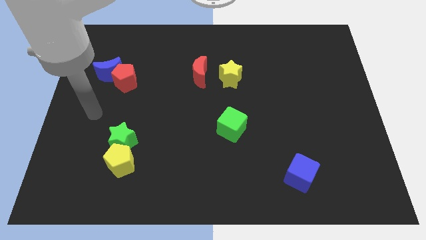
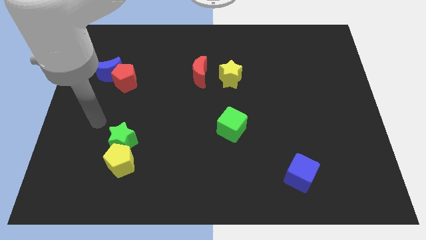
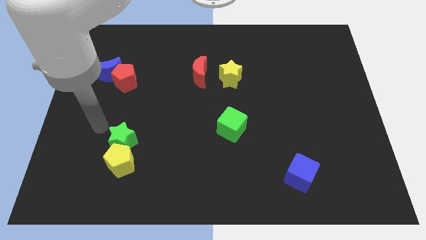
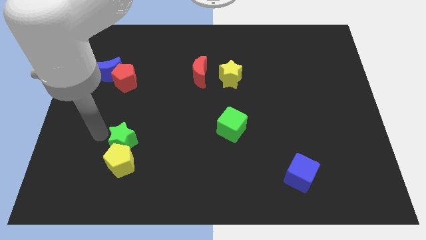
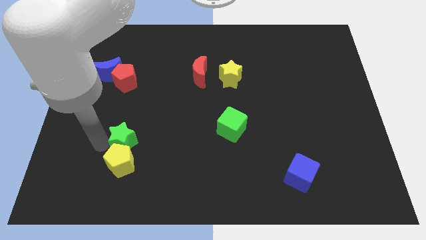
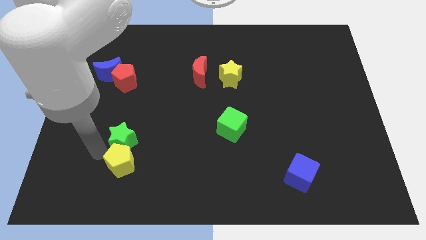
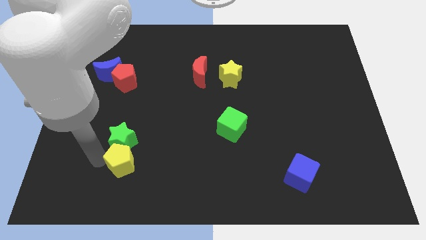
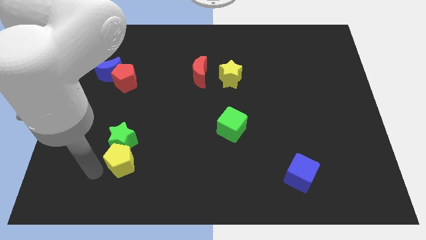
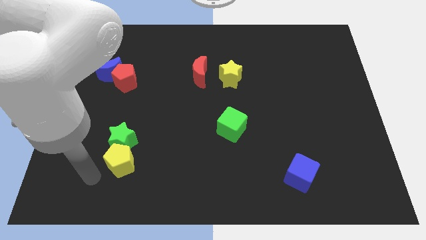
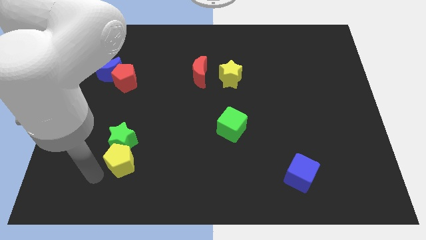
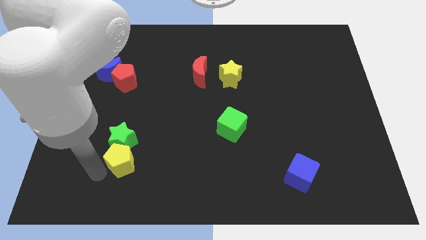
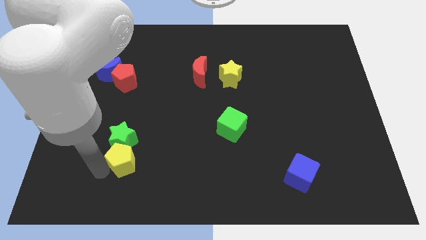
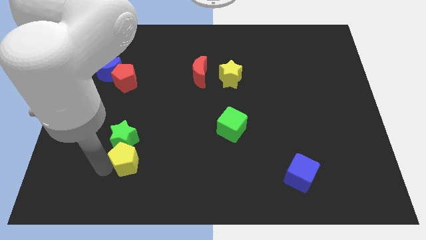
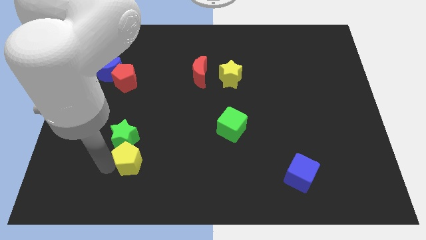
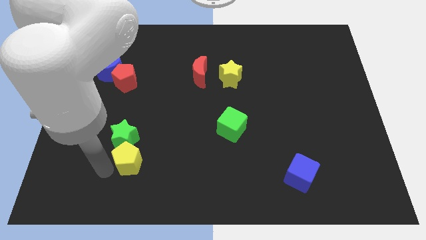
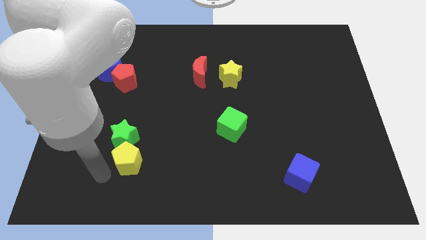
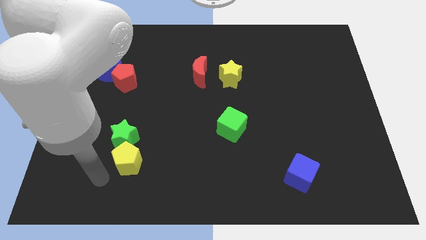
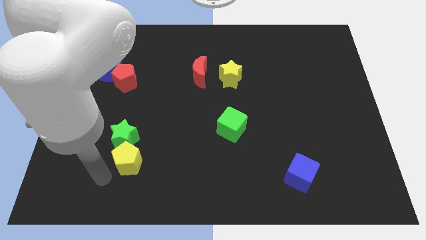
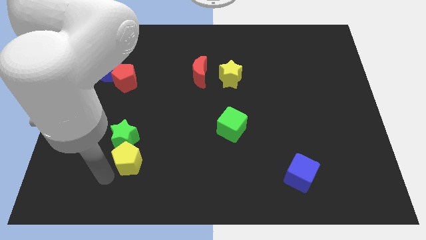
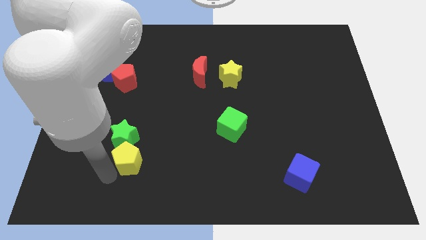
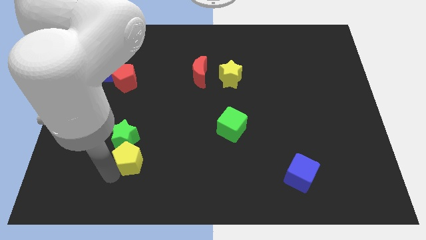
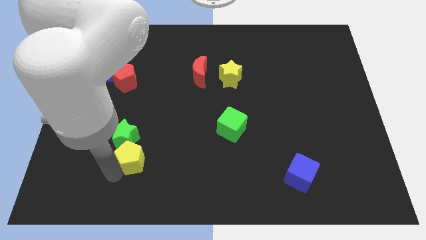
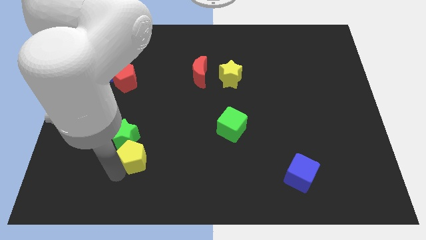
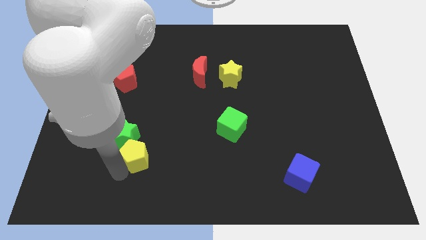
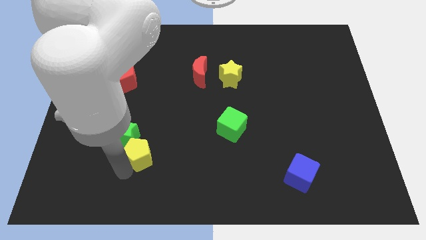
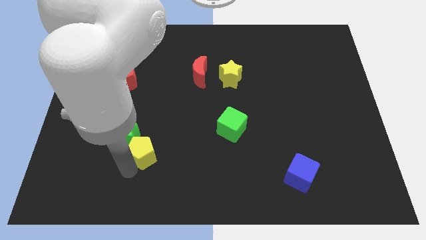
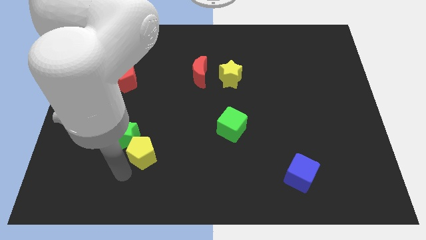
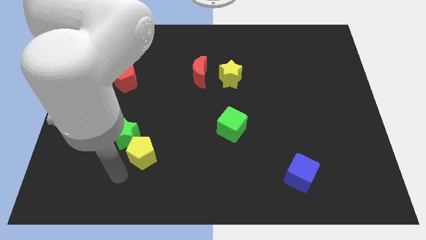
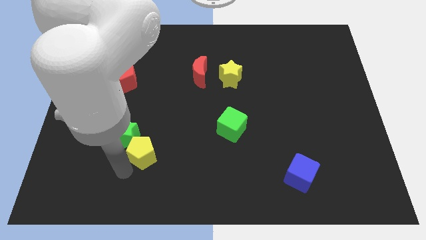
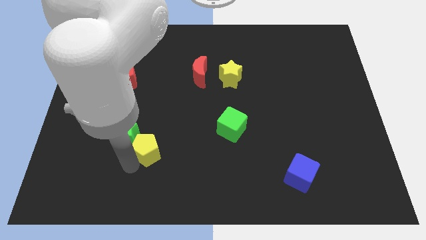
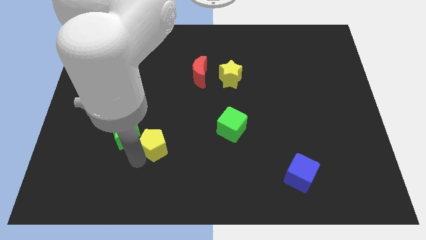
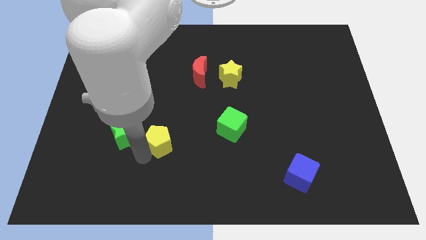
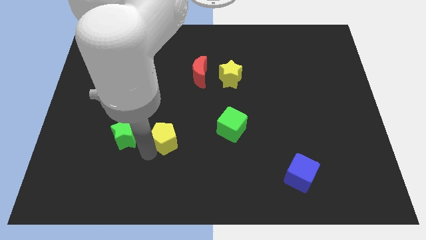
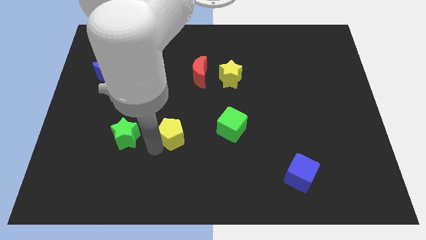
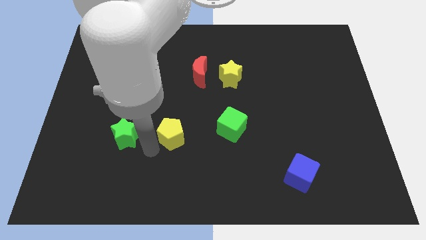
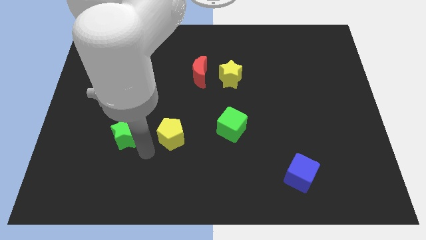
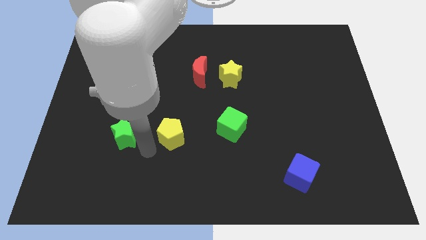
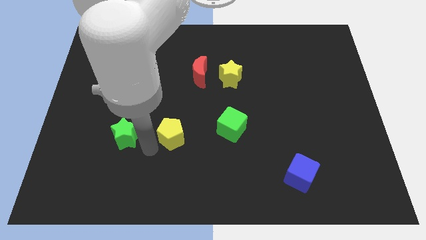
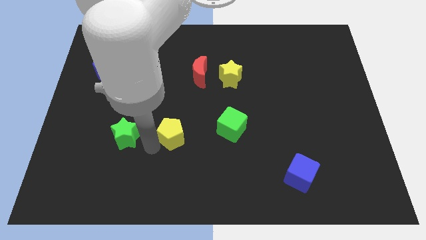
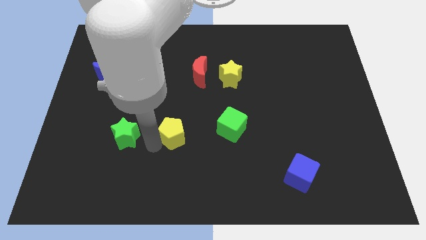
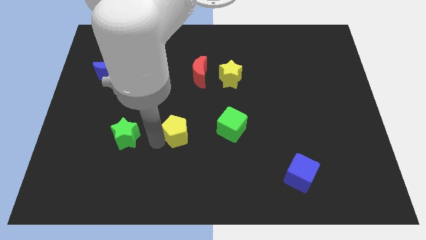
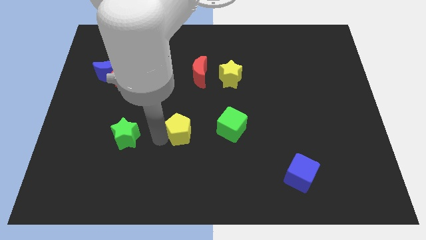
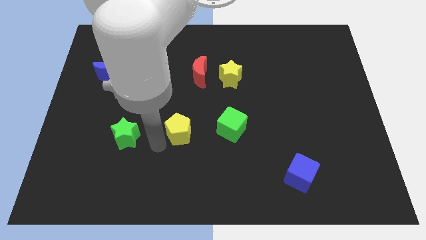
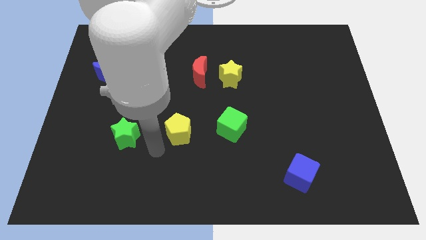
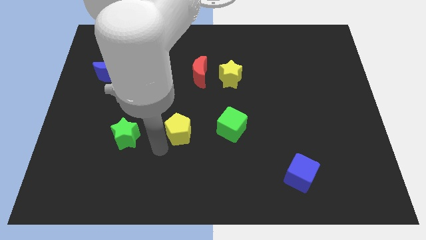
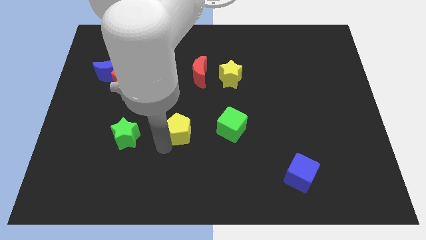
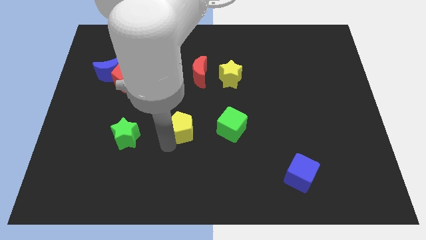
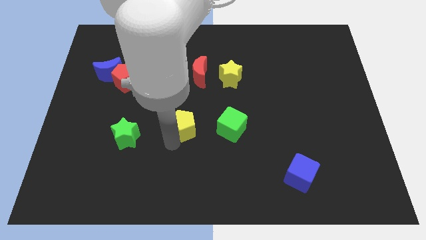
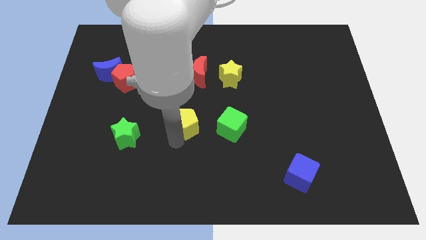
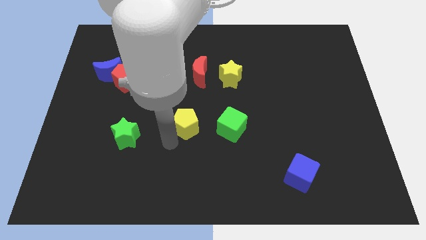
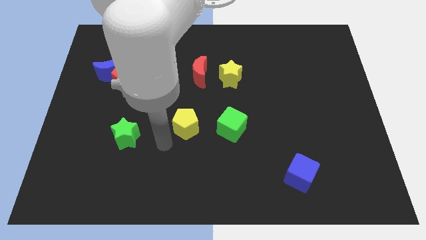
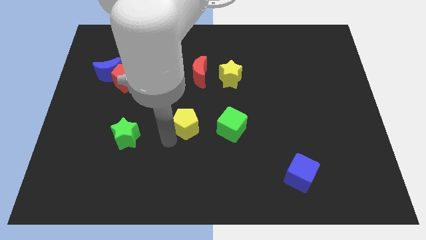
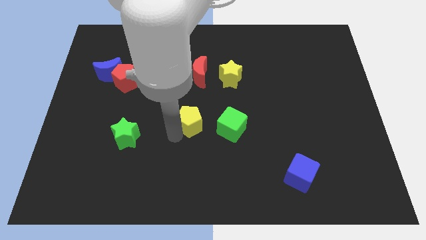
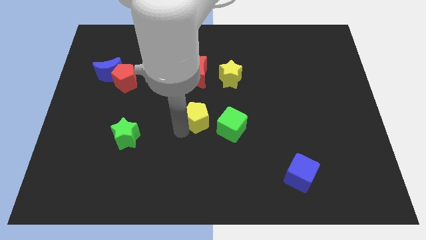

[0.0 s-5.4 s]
put the yellow pentagon diagonally up and to the left of the green cube

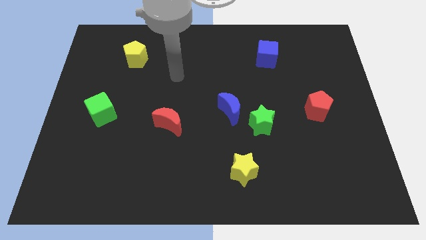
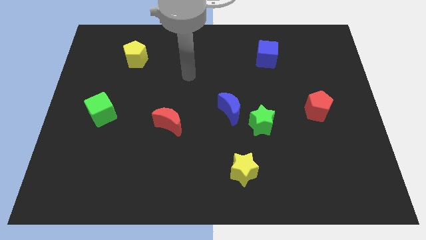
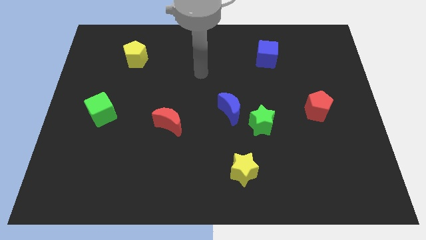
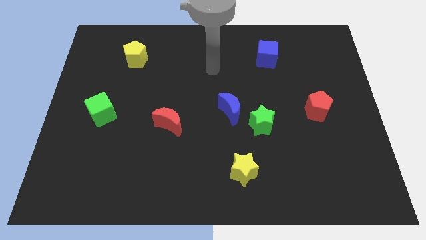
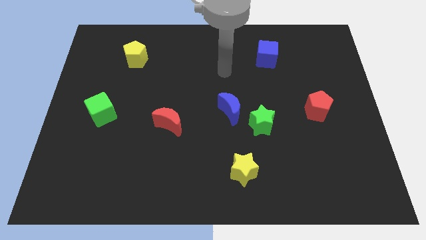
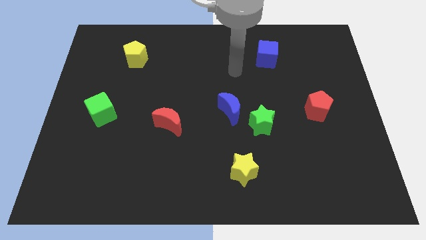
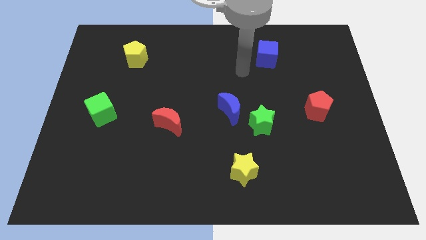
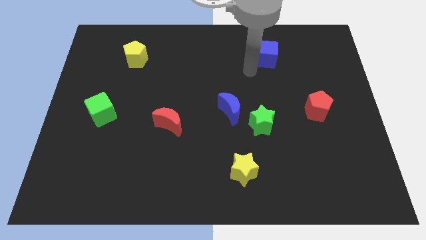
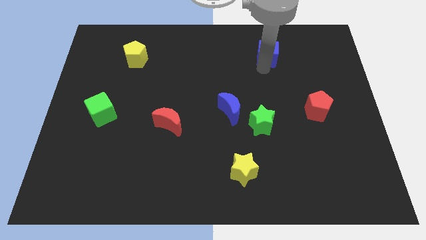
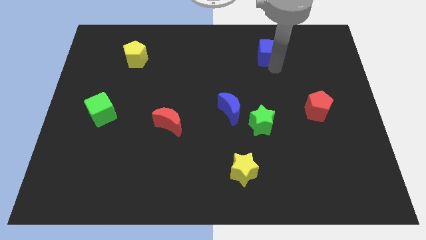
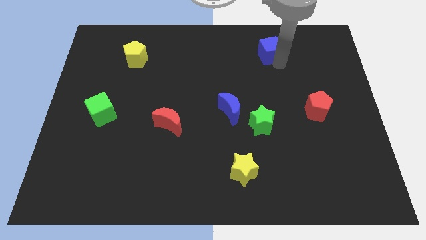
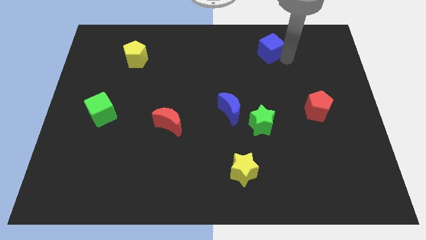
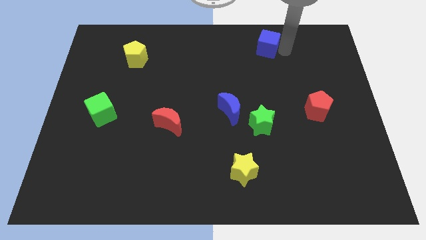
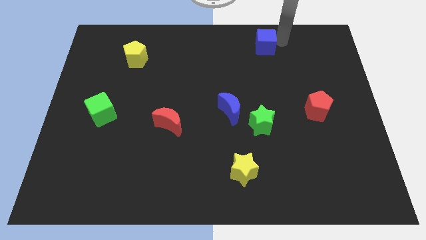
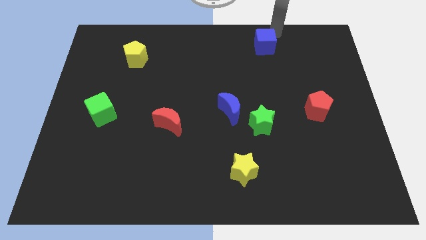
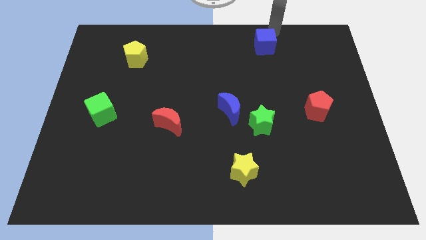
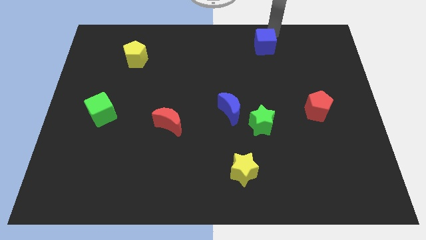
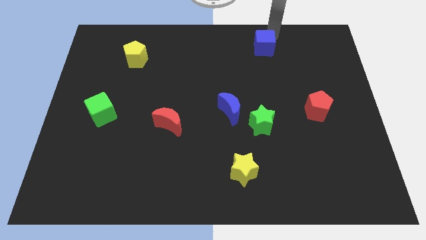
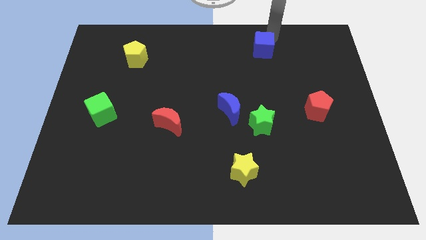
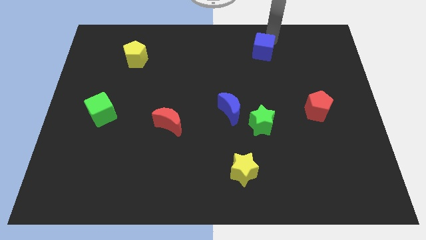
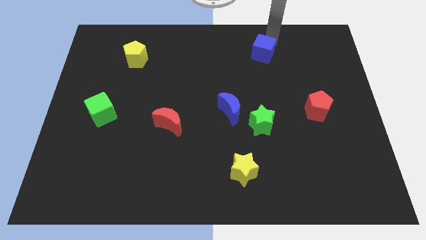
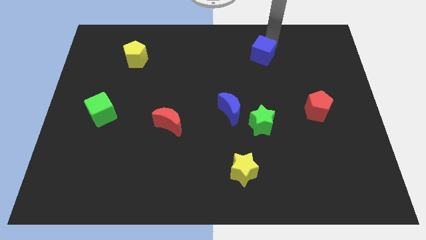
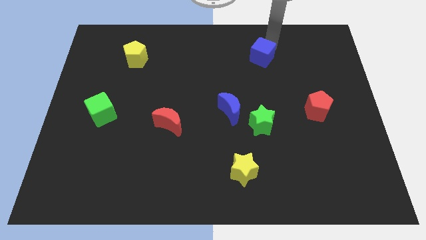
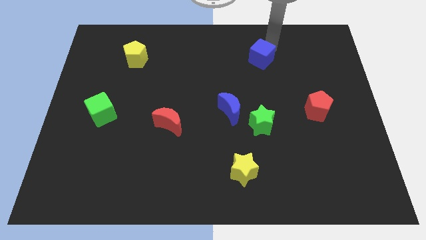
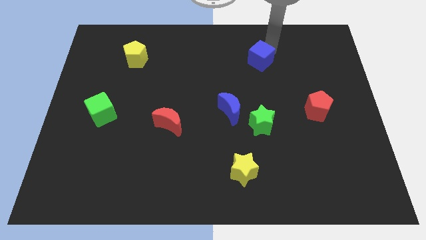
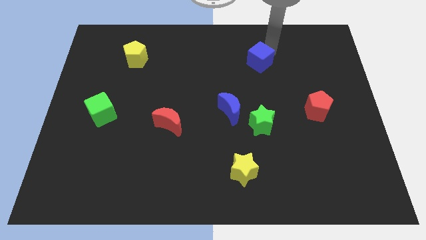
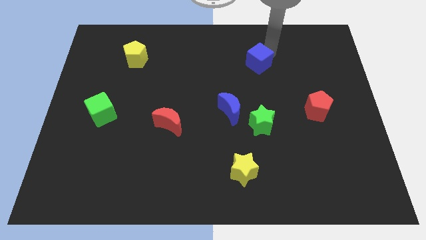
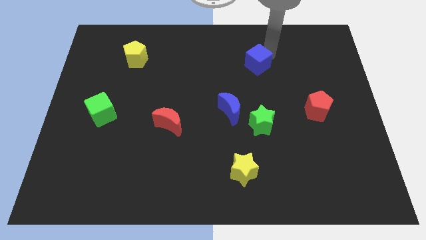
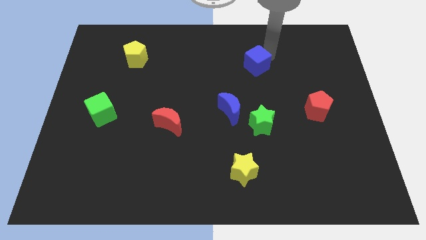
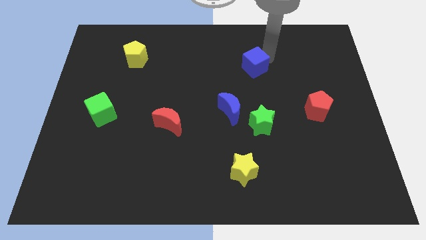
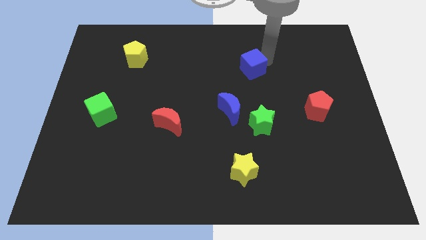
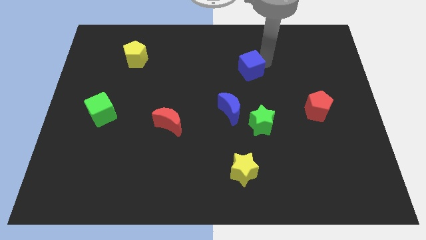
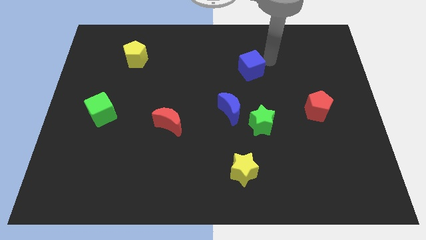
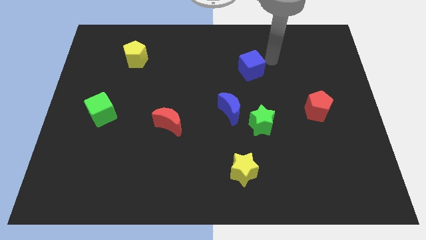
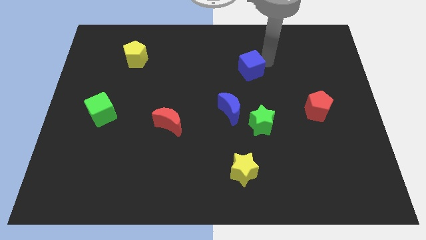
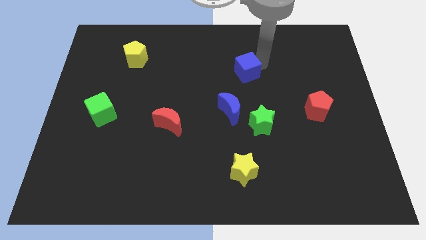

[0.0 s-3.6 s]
move the blue cube to the top of the blue moon
